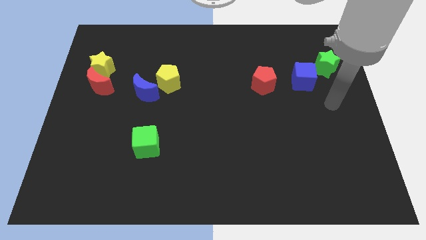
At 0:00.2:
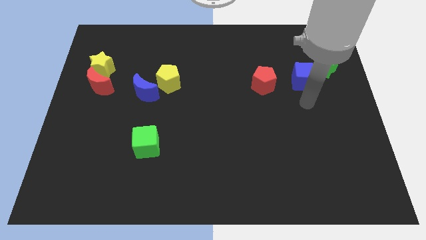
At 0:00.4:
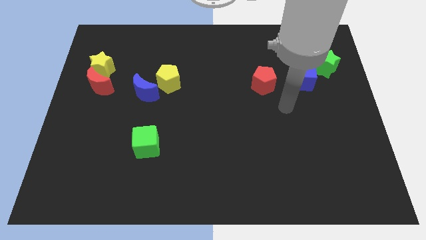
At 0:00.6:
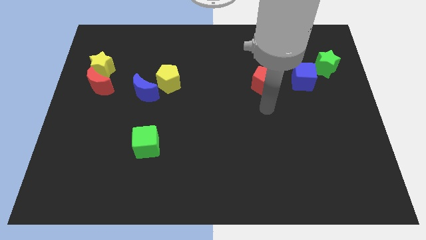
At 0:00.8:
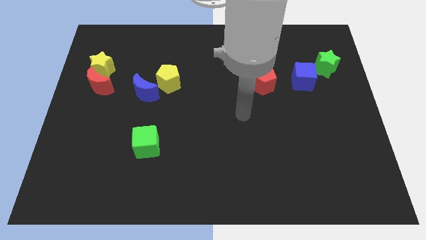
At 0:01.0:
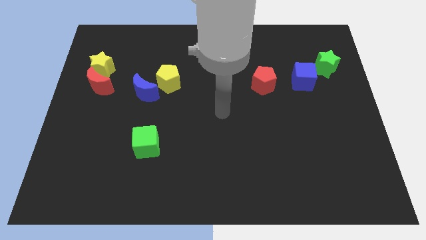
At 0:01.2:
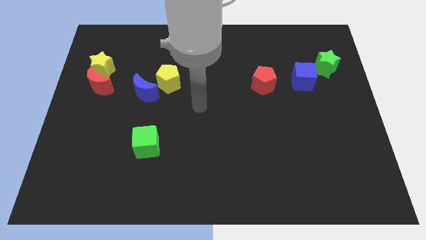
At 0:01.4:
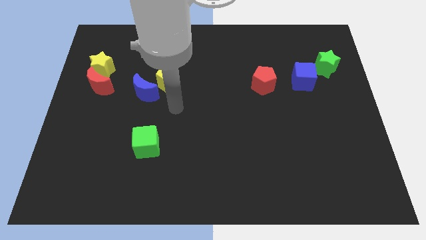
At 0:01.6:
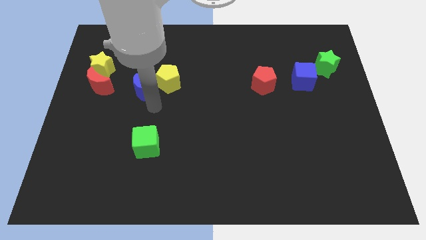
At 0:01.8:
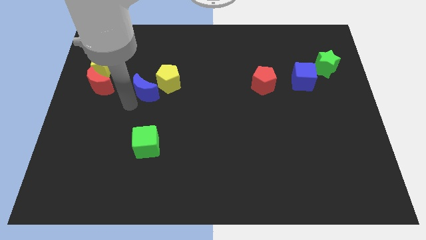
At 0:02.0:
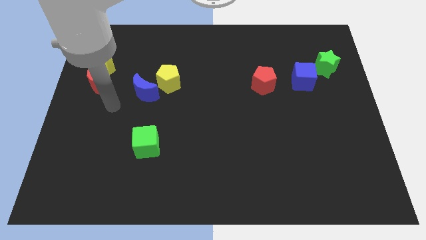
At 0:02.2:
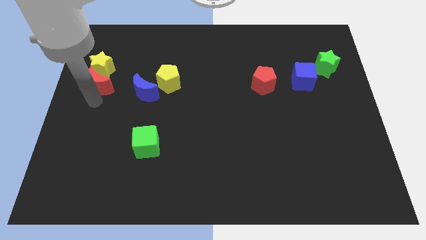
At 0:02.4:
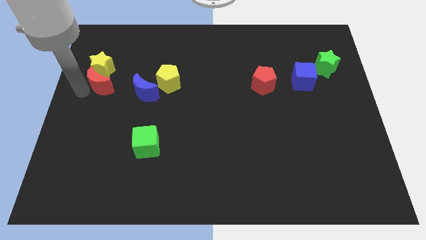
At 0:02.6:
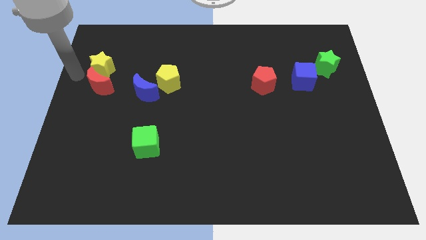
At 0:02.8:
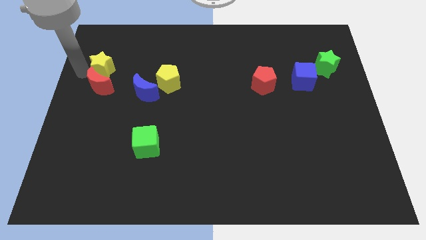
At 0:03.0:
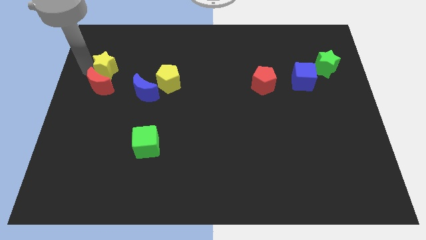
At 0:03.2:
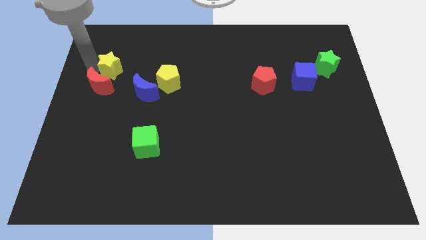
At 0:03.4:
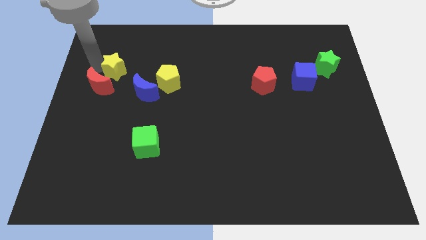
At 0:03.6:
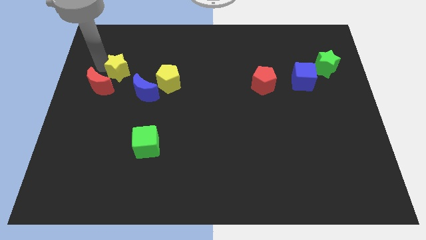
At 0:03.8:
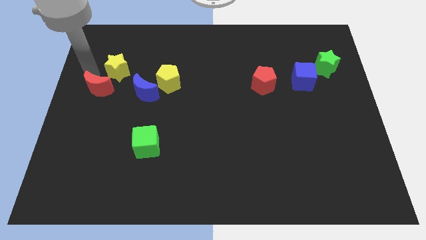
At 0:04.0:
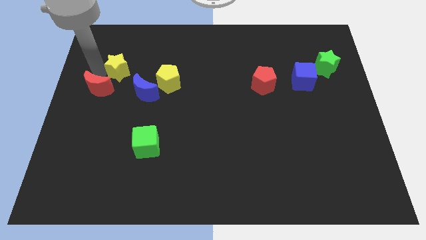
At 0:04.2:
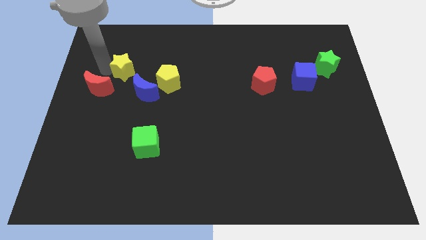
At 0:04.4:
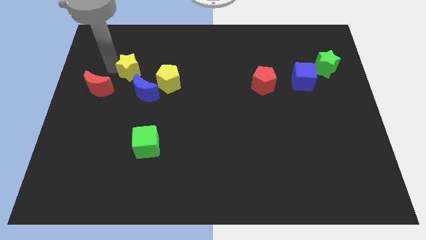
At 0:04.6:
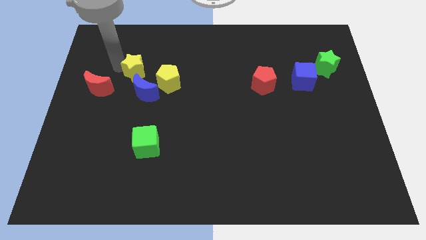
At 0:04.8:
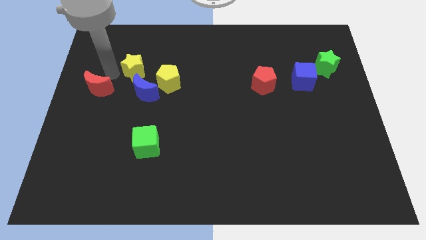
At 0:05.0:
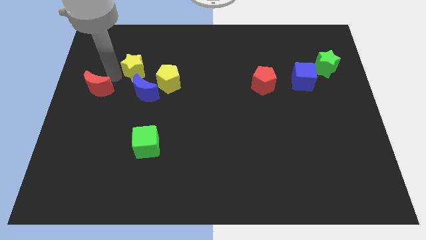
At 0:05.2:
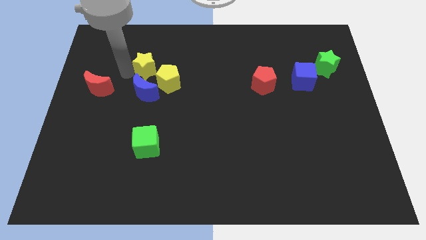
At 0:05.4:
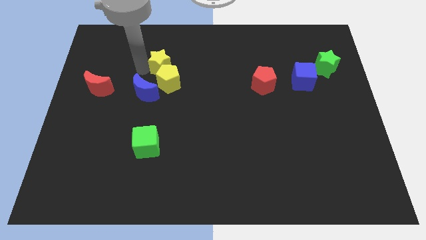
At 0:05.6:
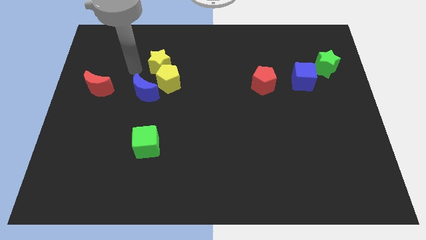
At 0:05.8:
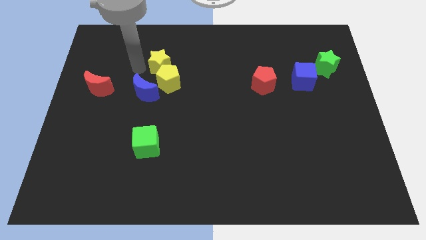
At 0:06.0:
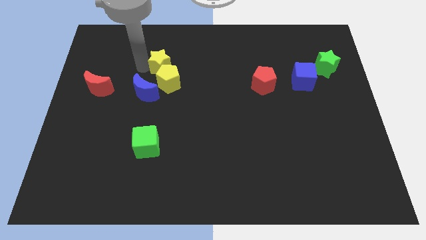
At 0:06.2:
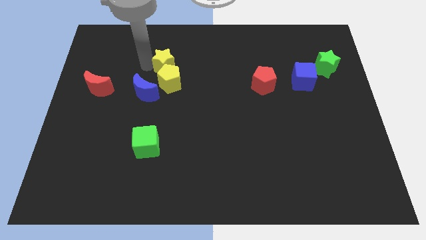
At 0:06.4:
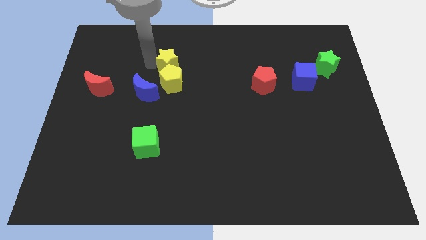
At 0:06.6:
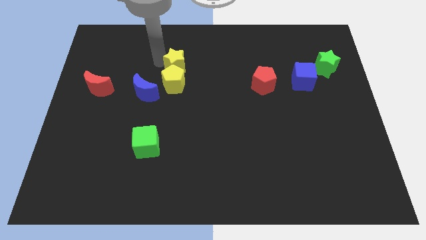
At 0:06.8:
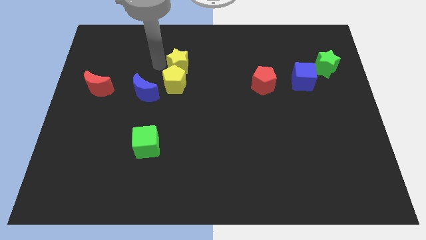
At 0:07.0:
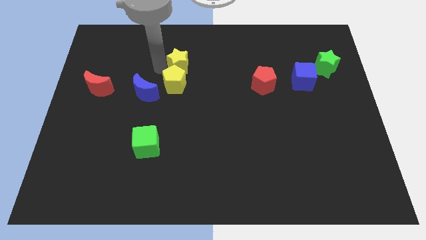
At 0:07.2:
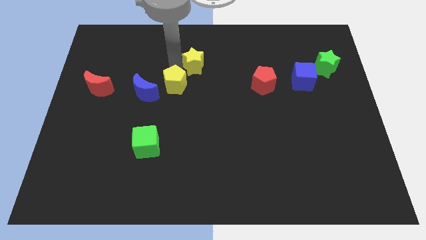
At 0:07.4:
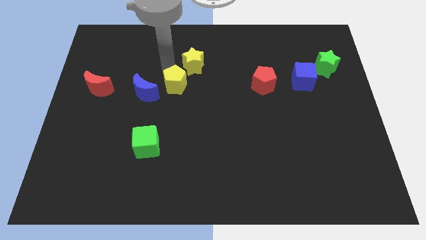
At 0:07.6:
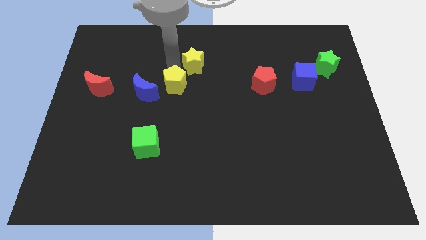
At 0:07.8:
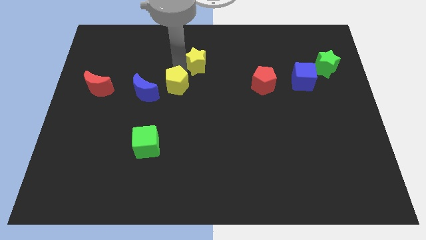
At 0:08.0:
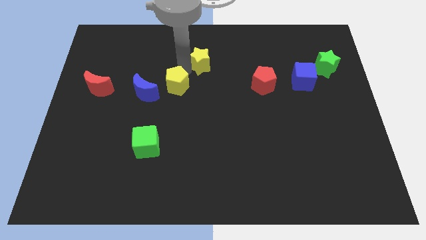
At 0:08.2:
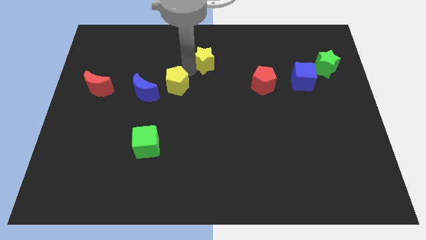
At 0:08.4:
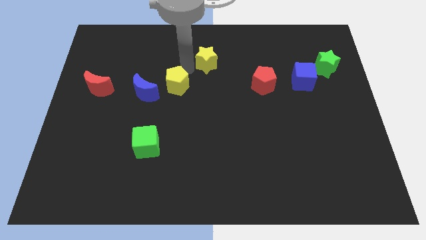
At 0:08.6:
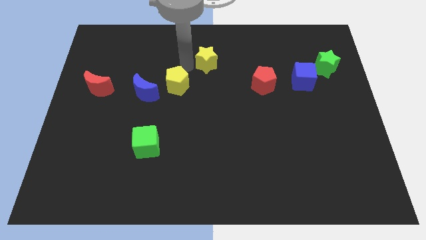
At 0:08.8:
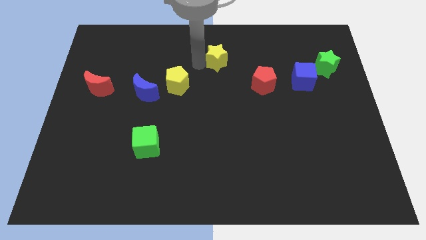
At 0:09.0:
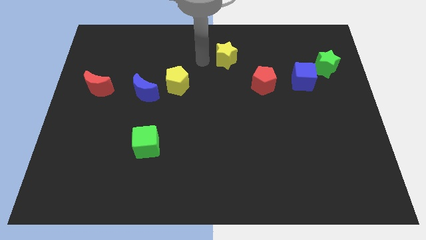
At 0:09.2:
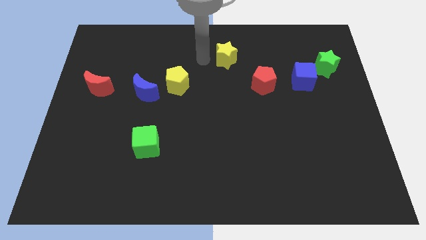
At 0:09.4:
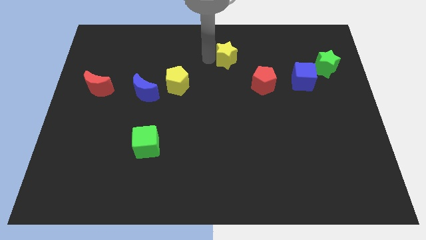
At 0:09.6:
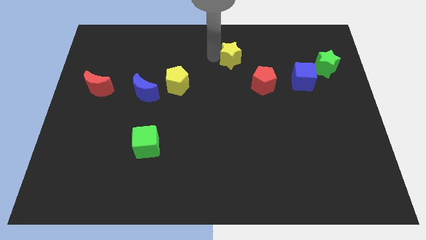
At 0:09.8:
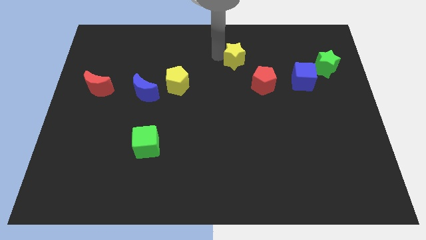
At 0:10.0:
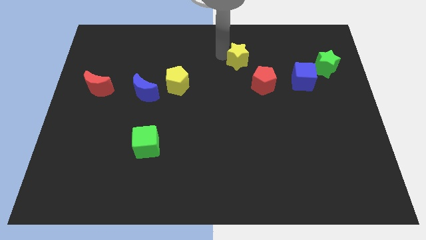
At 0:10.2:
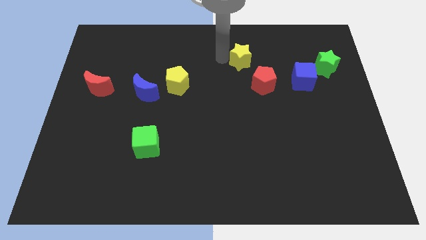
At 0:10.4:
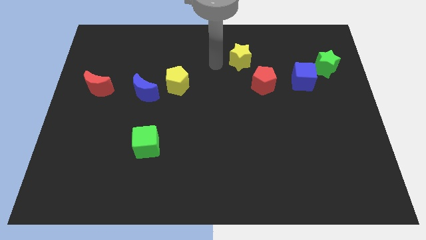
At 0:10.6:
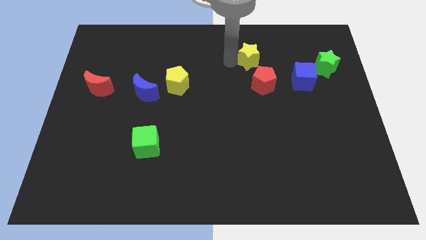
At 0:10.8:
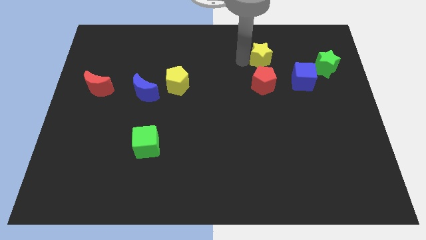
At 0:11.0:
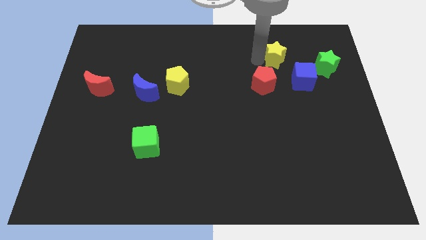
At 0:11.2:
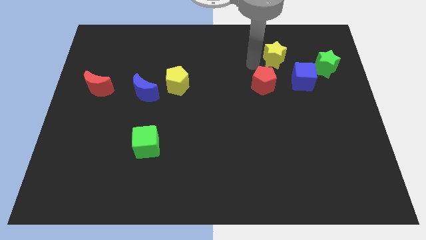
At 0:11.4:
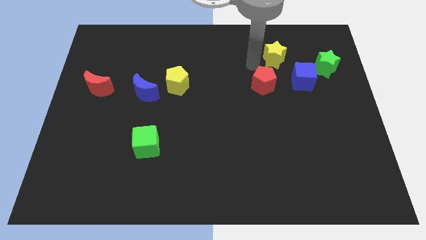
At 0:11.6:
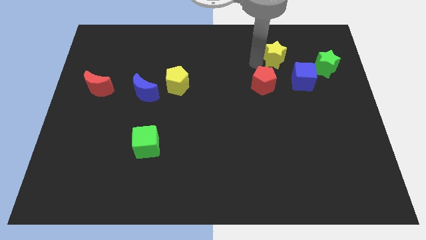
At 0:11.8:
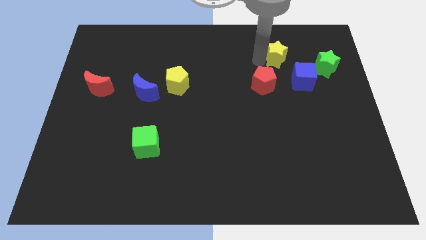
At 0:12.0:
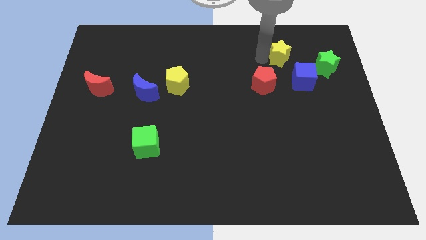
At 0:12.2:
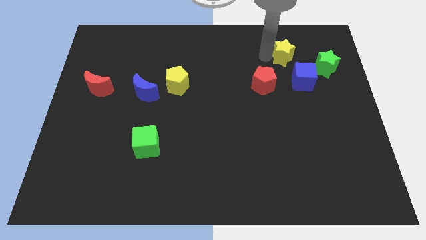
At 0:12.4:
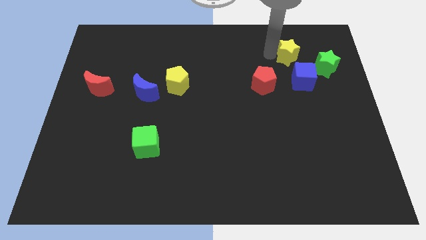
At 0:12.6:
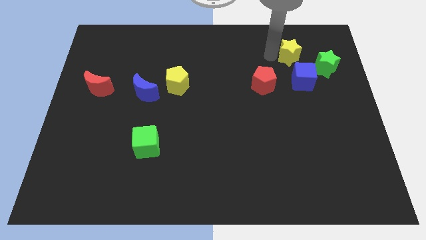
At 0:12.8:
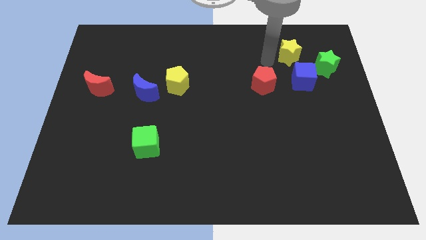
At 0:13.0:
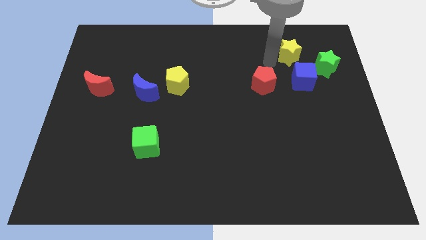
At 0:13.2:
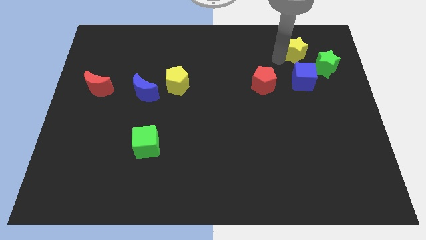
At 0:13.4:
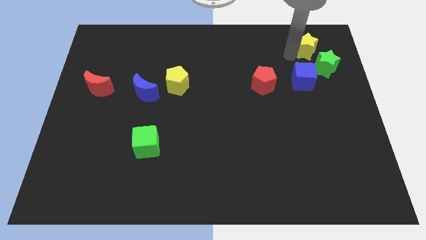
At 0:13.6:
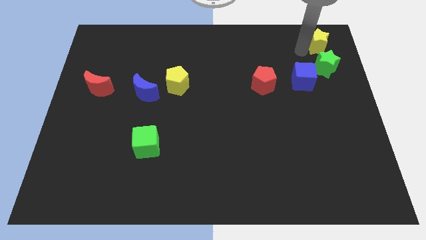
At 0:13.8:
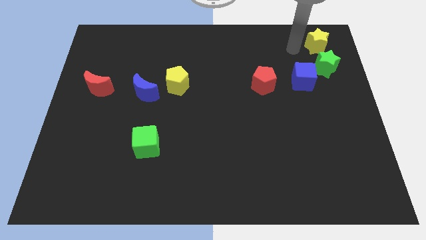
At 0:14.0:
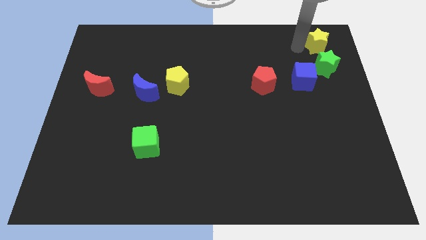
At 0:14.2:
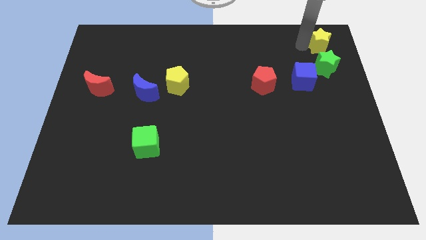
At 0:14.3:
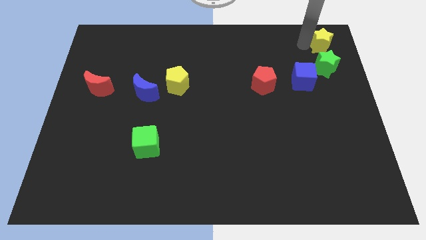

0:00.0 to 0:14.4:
push the yellow star to the top right
